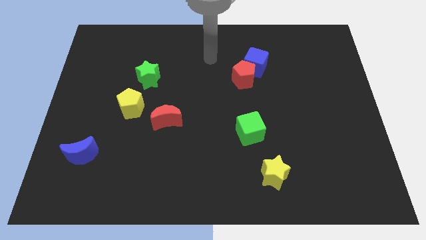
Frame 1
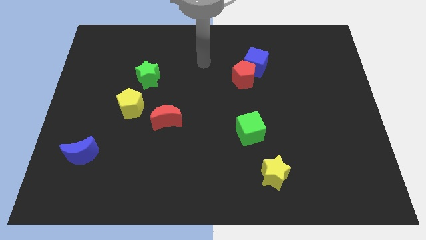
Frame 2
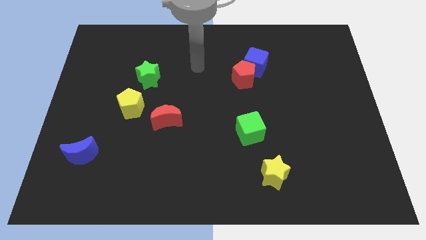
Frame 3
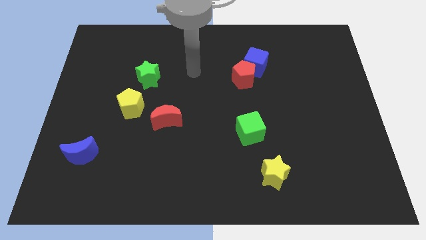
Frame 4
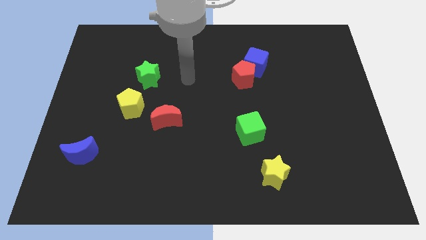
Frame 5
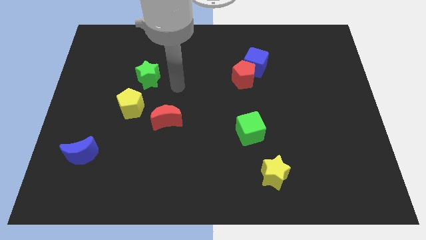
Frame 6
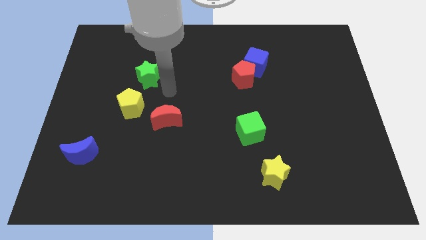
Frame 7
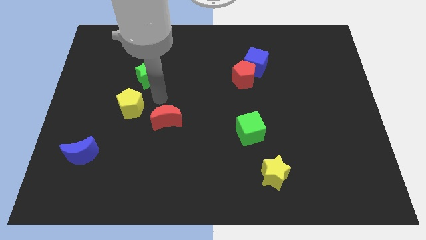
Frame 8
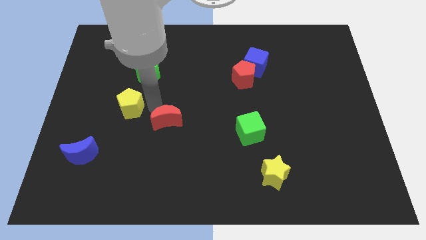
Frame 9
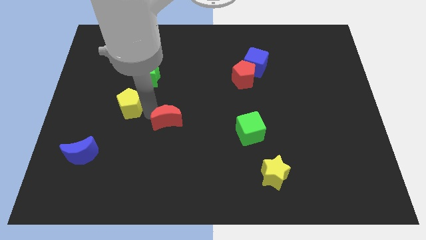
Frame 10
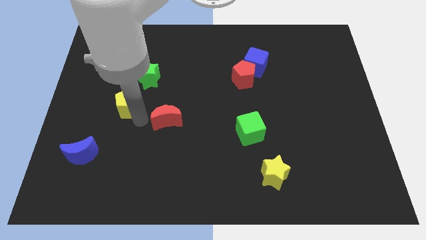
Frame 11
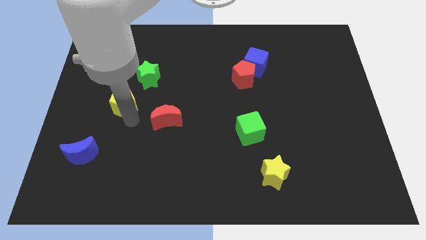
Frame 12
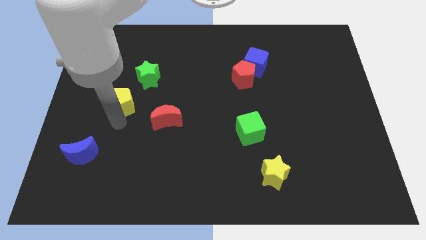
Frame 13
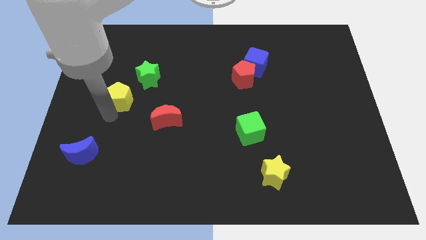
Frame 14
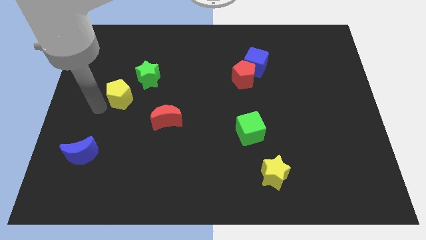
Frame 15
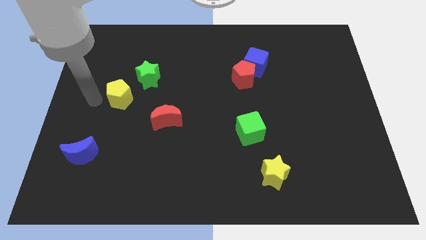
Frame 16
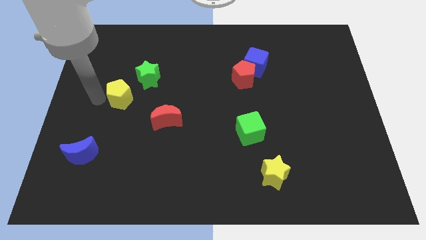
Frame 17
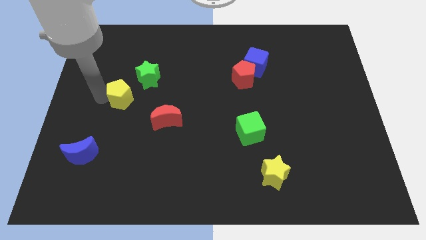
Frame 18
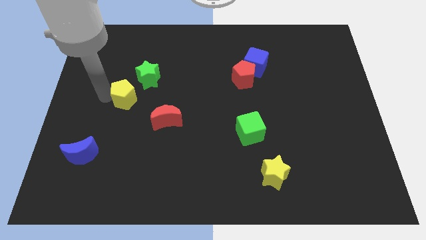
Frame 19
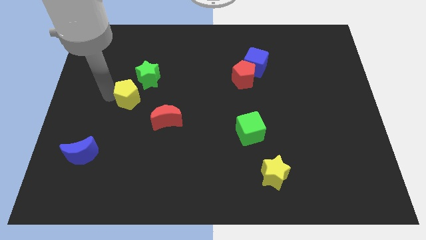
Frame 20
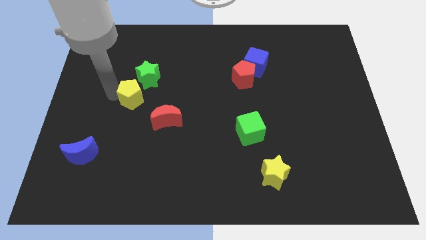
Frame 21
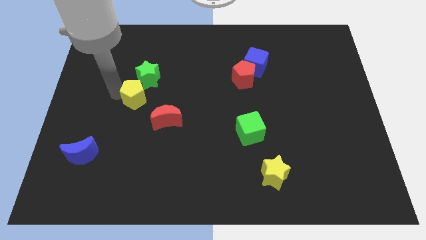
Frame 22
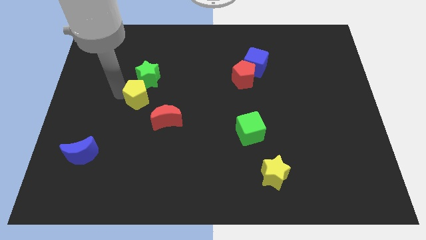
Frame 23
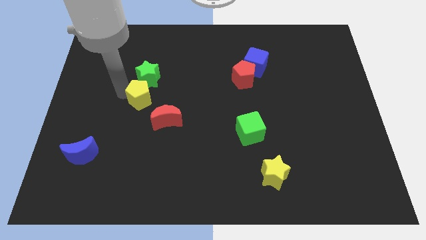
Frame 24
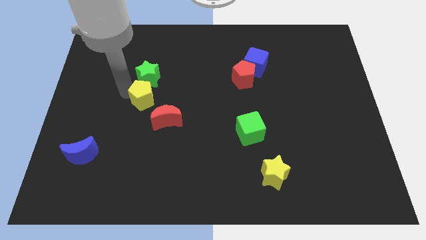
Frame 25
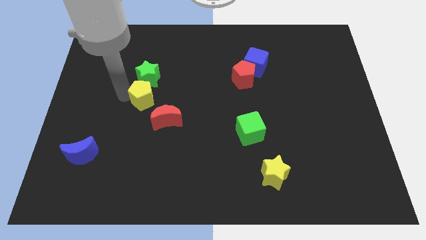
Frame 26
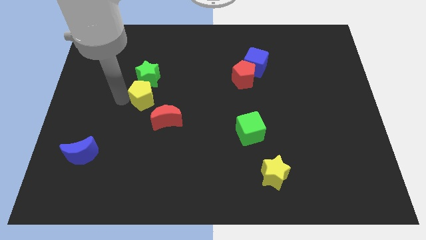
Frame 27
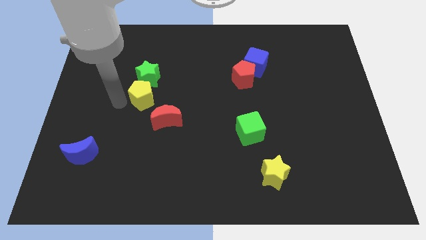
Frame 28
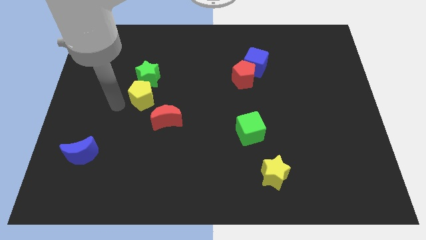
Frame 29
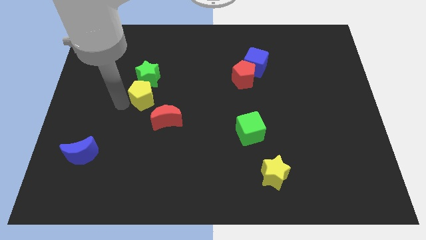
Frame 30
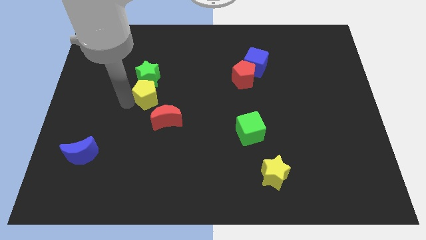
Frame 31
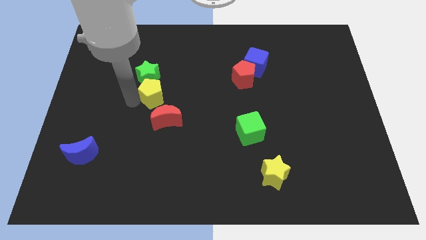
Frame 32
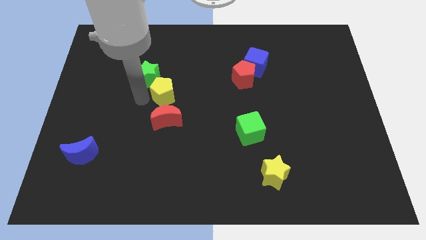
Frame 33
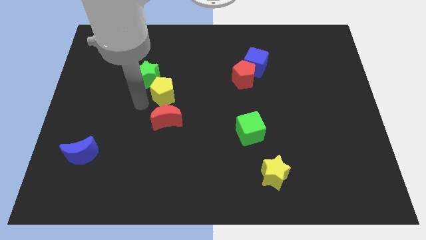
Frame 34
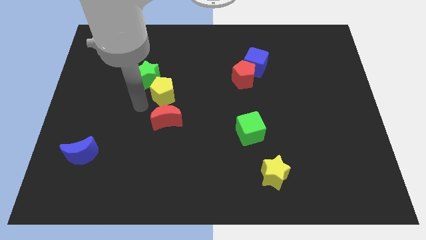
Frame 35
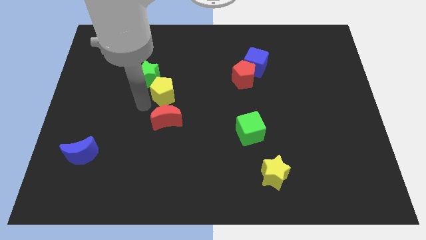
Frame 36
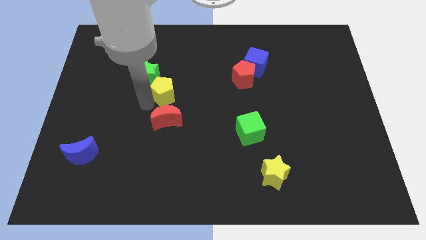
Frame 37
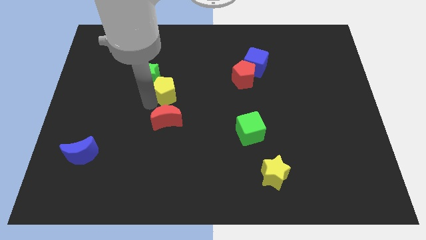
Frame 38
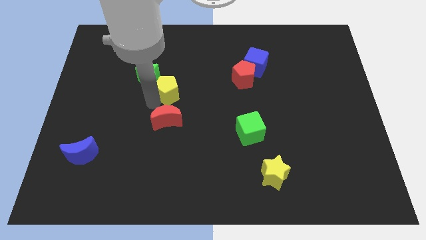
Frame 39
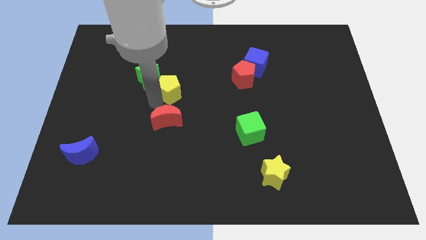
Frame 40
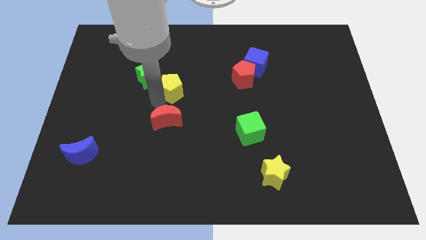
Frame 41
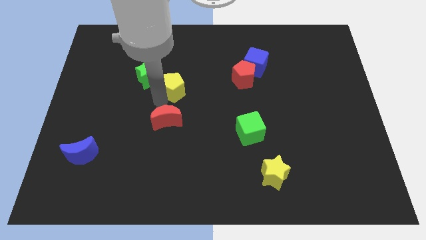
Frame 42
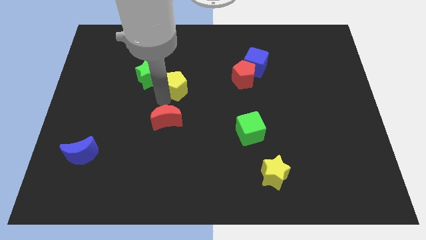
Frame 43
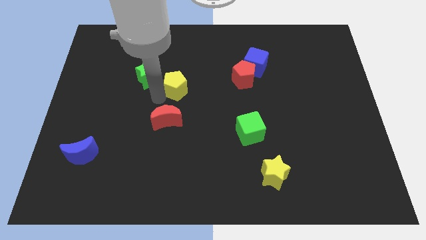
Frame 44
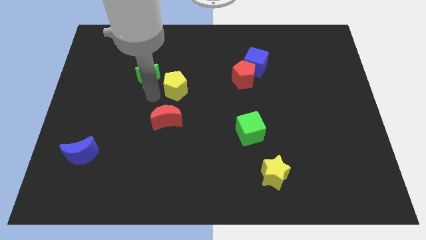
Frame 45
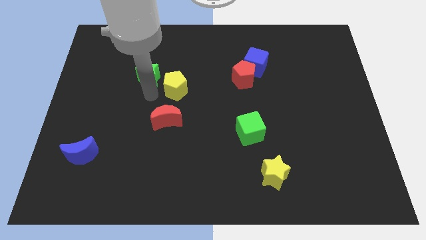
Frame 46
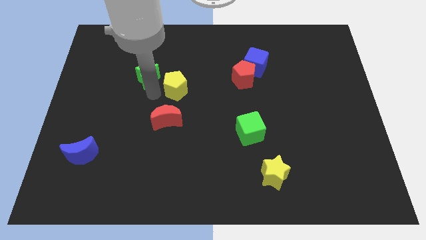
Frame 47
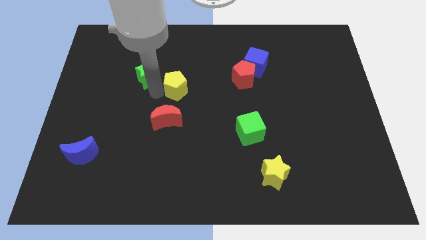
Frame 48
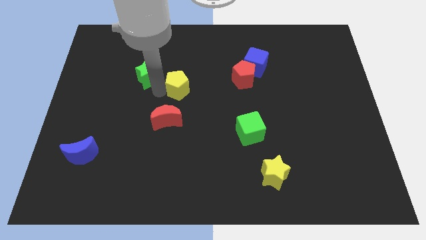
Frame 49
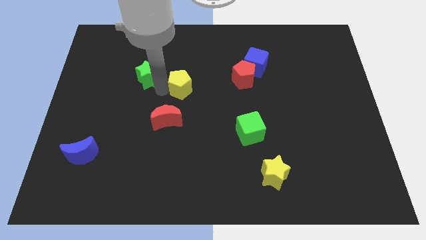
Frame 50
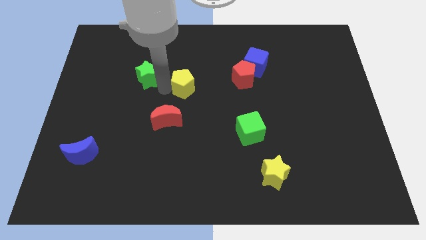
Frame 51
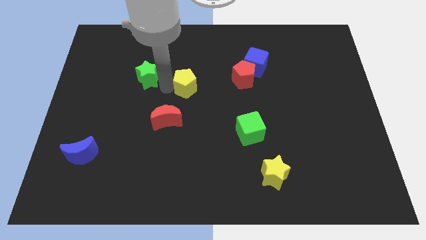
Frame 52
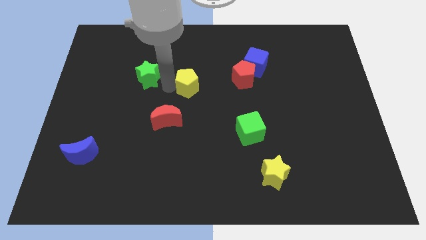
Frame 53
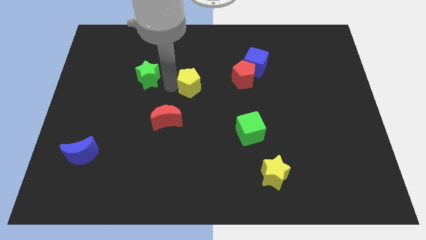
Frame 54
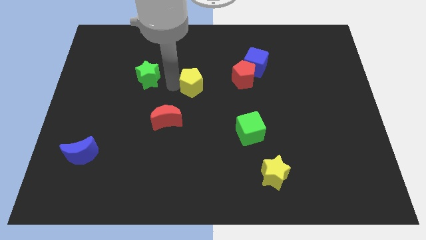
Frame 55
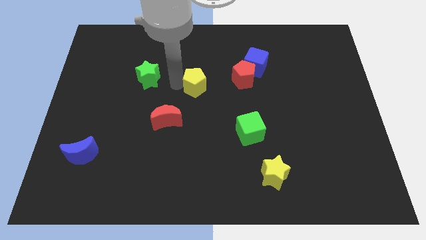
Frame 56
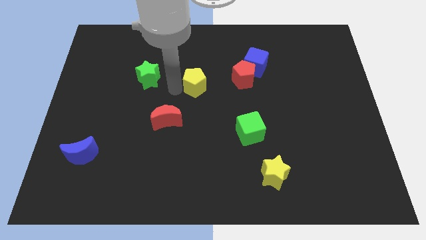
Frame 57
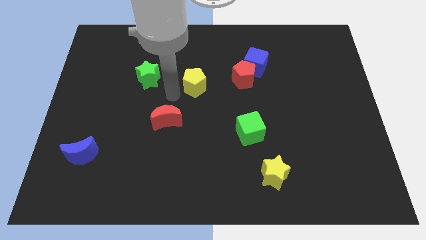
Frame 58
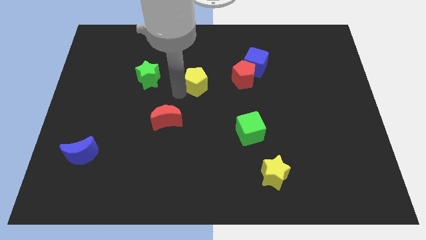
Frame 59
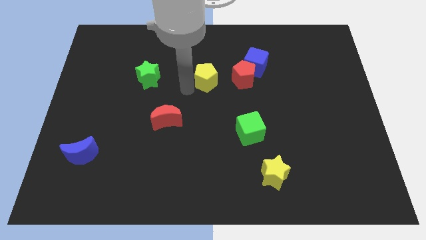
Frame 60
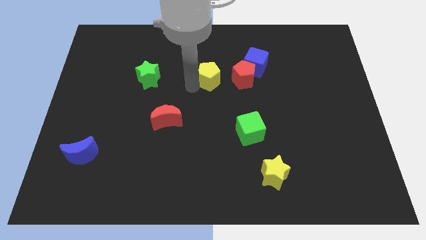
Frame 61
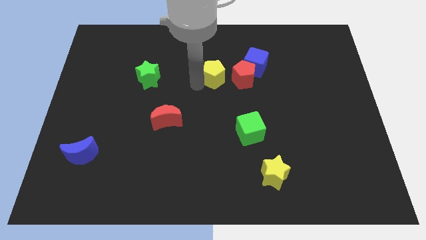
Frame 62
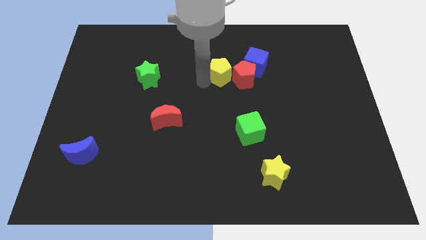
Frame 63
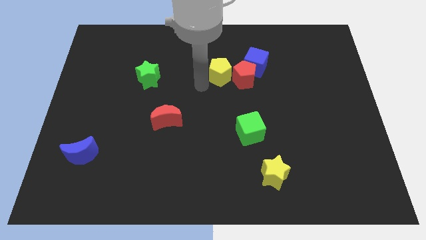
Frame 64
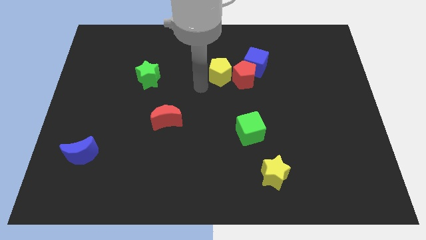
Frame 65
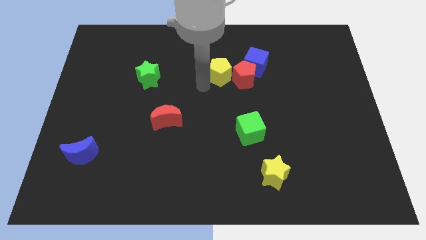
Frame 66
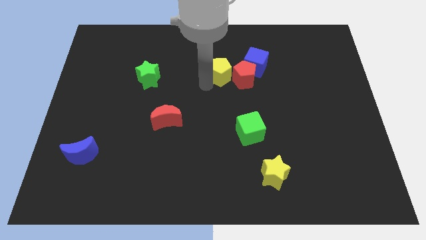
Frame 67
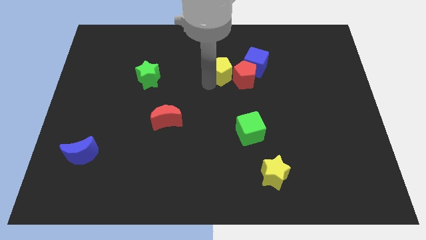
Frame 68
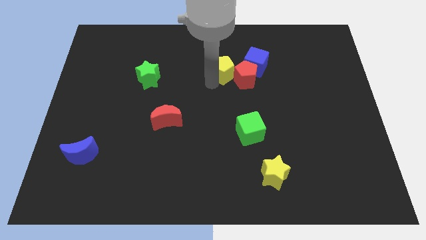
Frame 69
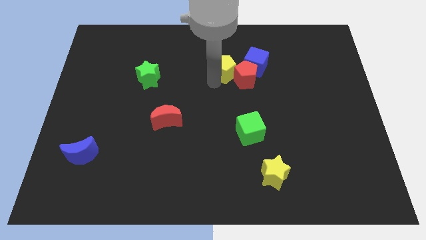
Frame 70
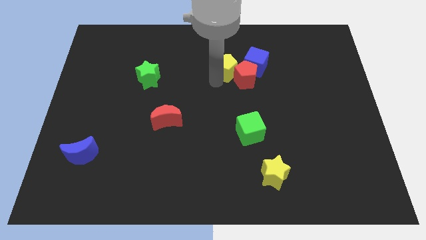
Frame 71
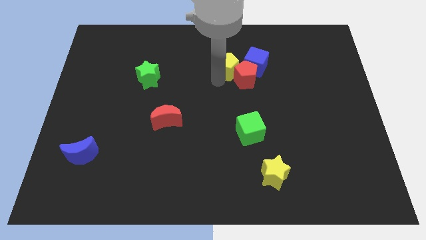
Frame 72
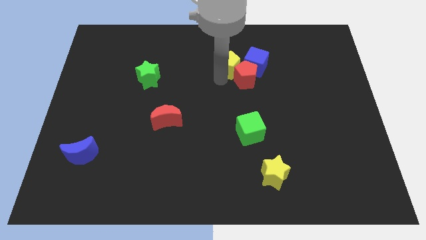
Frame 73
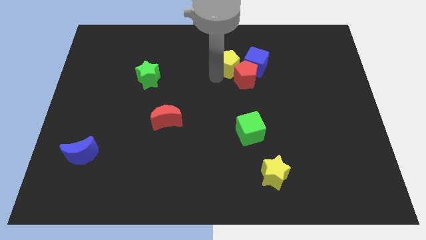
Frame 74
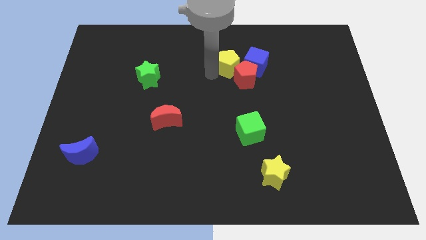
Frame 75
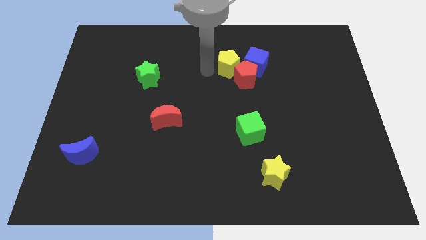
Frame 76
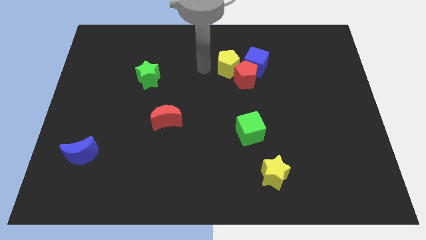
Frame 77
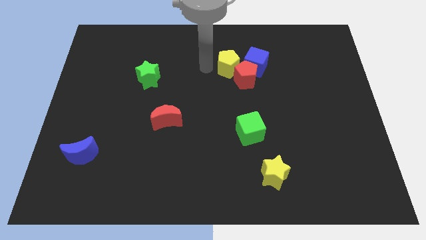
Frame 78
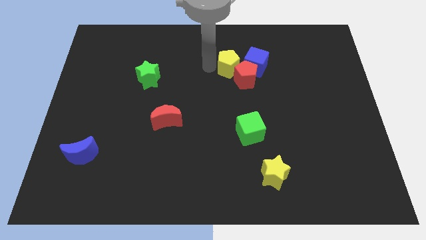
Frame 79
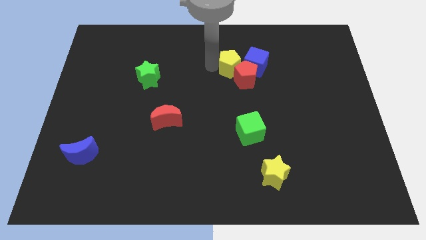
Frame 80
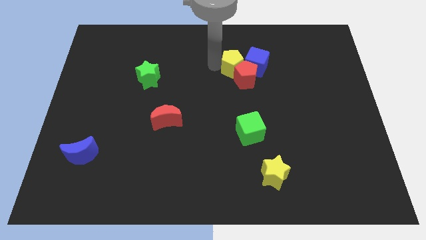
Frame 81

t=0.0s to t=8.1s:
move the yellow pentagon to the blue cube
